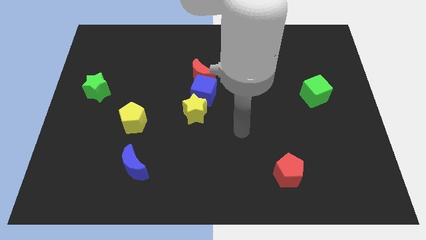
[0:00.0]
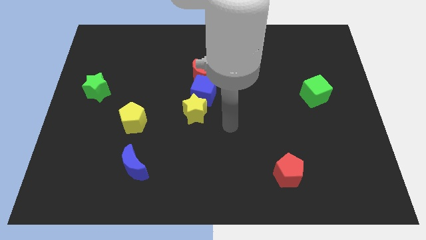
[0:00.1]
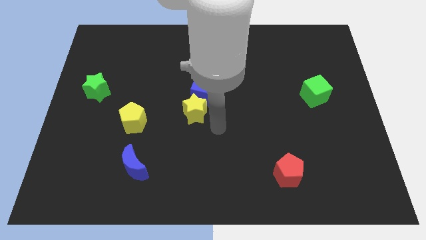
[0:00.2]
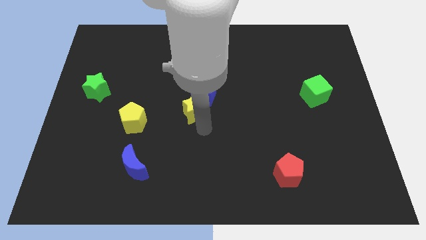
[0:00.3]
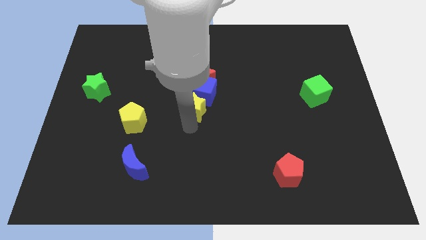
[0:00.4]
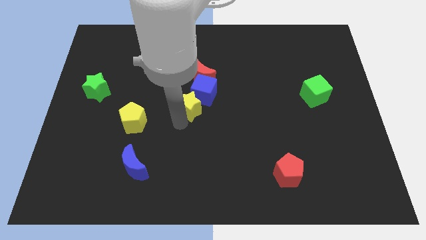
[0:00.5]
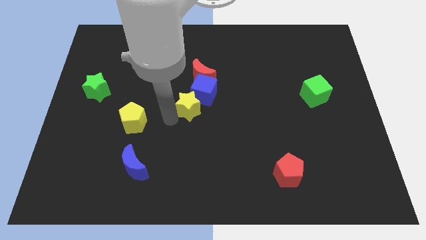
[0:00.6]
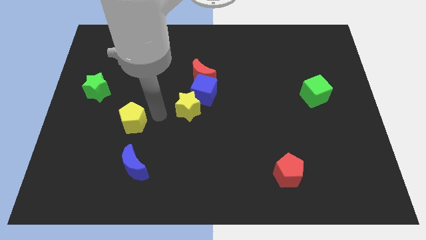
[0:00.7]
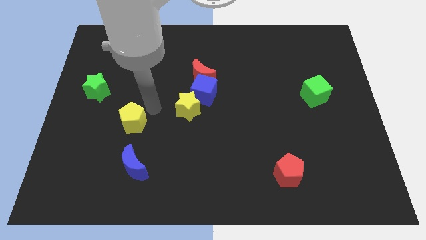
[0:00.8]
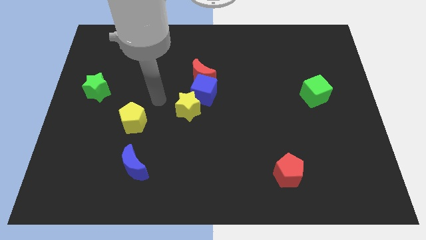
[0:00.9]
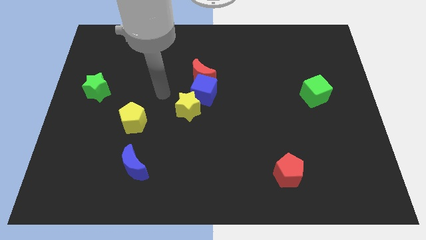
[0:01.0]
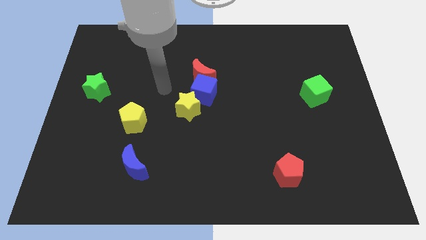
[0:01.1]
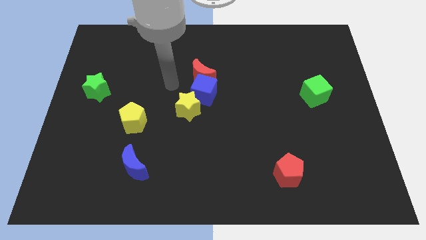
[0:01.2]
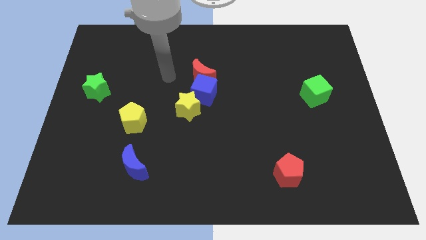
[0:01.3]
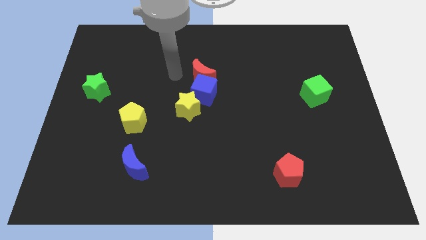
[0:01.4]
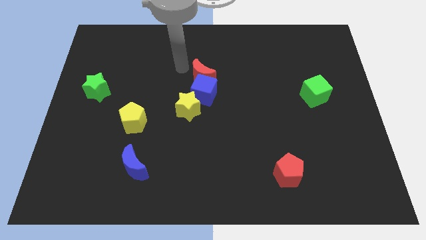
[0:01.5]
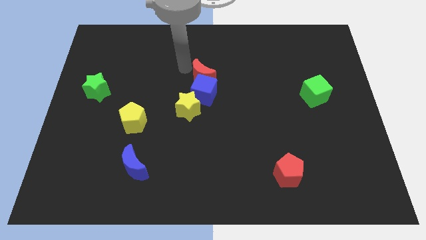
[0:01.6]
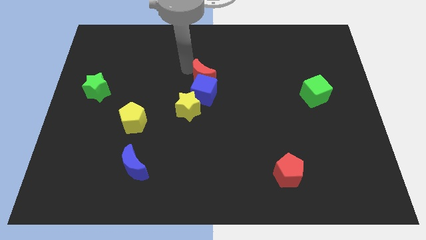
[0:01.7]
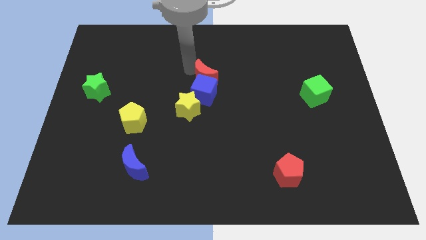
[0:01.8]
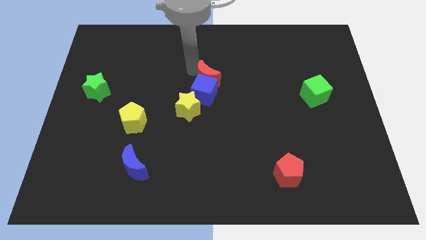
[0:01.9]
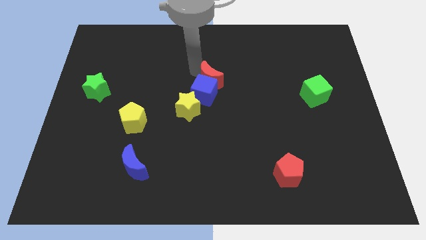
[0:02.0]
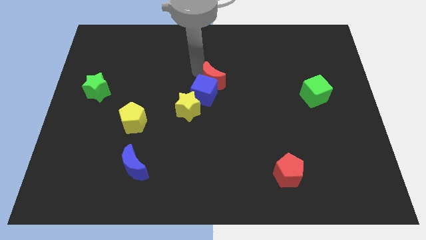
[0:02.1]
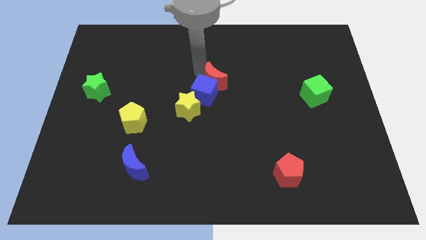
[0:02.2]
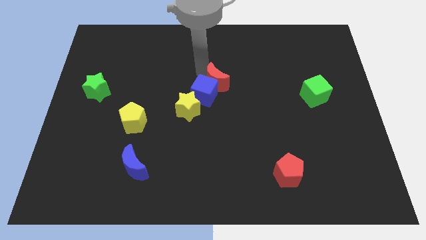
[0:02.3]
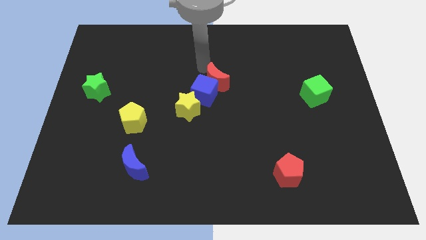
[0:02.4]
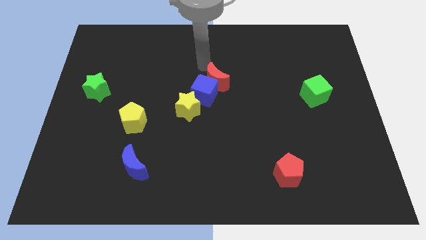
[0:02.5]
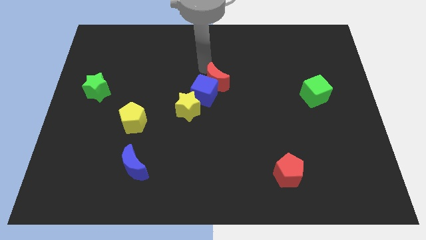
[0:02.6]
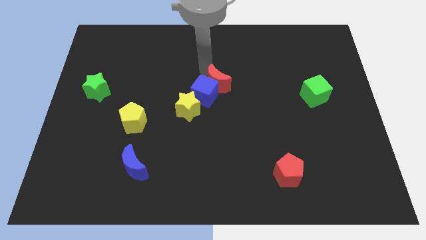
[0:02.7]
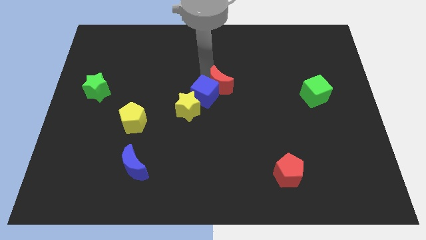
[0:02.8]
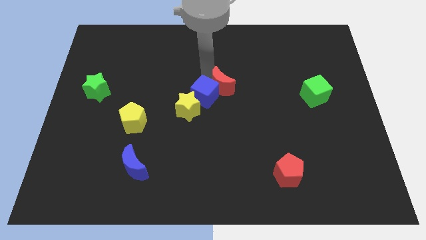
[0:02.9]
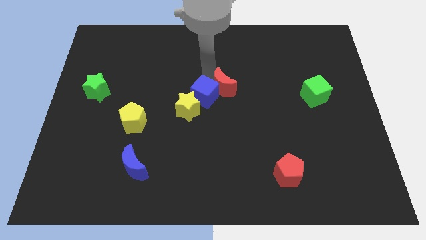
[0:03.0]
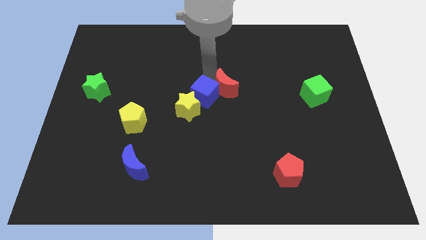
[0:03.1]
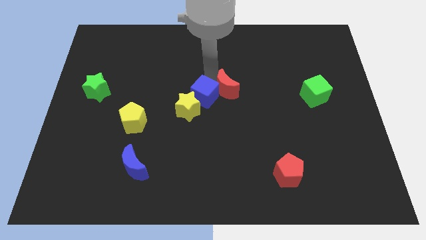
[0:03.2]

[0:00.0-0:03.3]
move the red moon a bit down and to the right

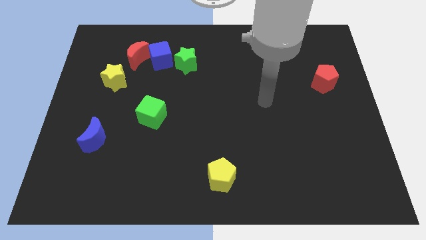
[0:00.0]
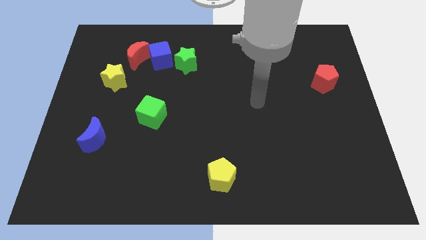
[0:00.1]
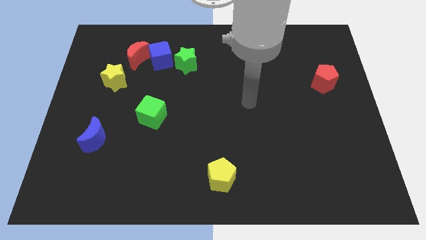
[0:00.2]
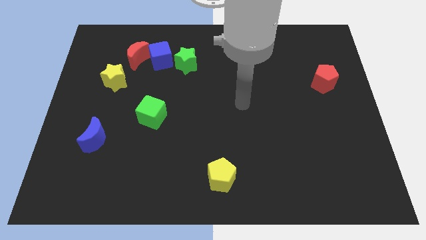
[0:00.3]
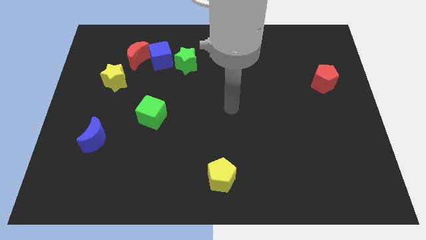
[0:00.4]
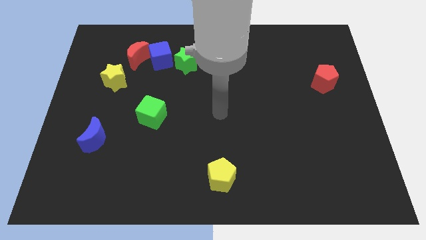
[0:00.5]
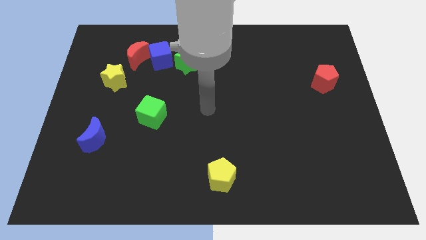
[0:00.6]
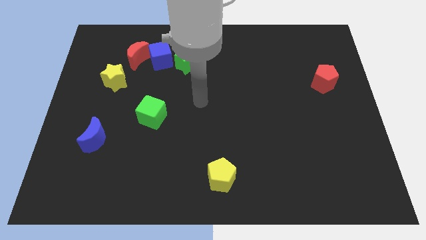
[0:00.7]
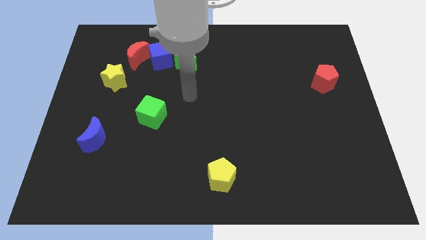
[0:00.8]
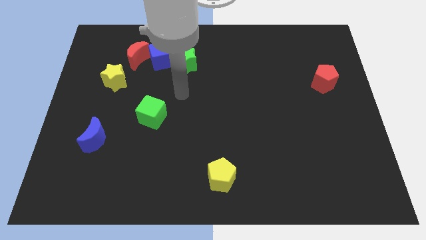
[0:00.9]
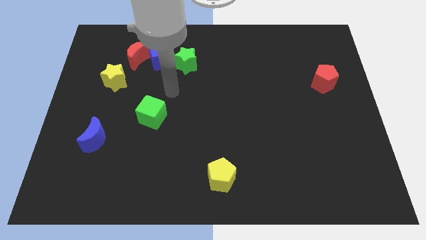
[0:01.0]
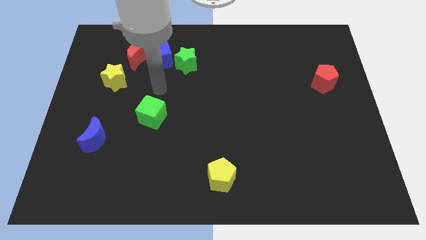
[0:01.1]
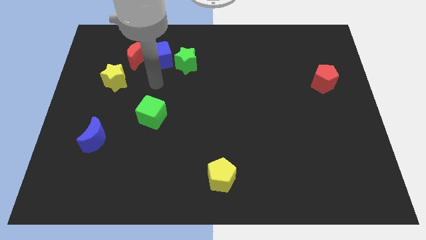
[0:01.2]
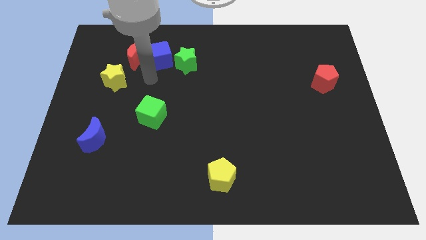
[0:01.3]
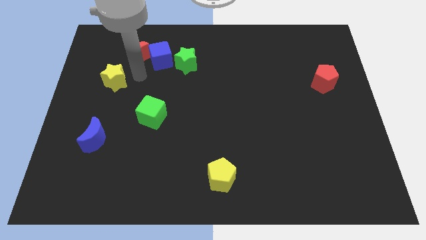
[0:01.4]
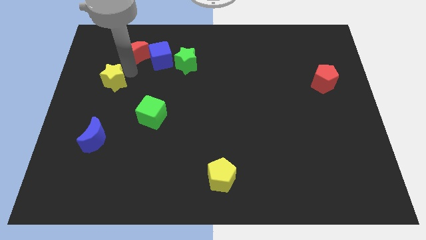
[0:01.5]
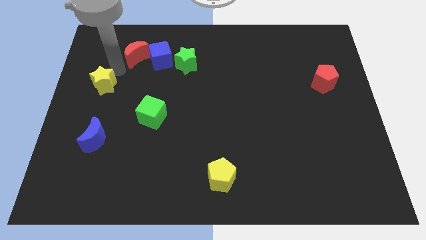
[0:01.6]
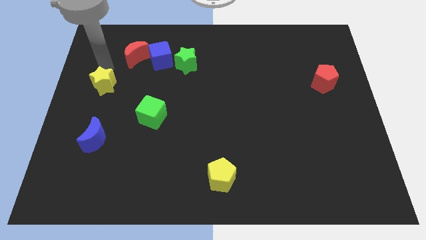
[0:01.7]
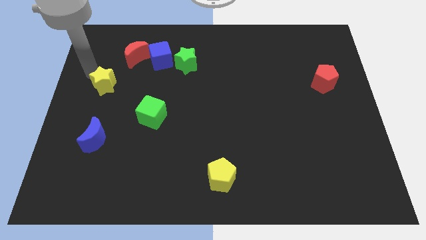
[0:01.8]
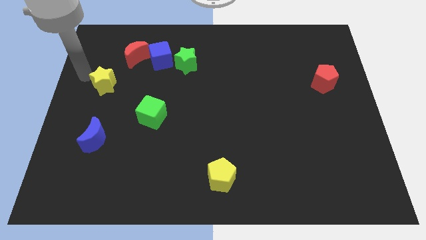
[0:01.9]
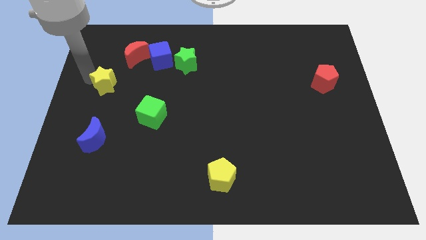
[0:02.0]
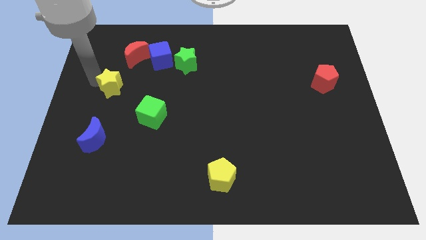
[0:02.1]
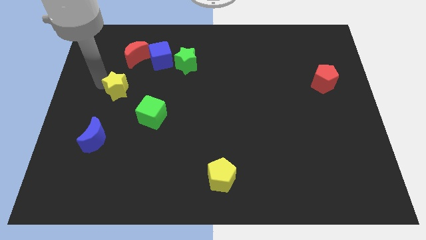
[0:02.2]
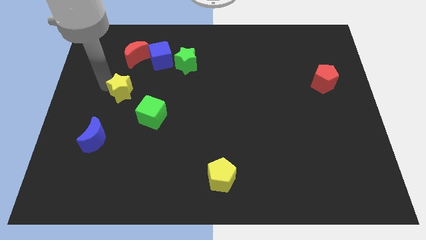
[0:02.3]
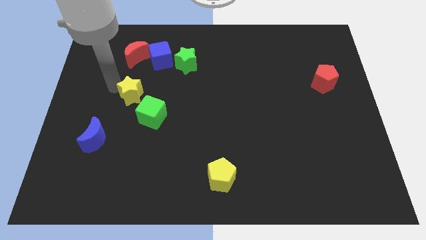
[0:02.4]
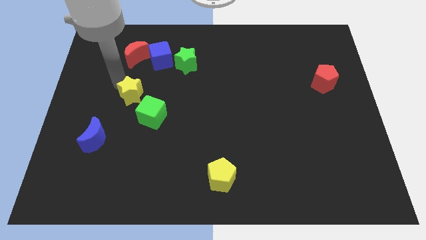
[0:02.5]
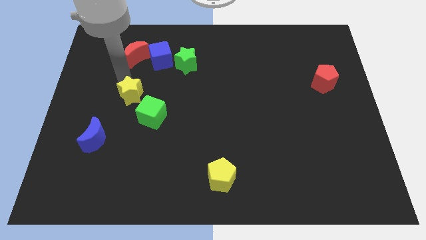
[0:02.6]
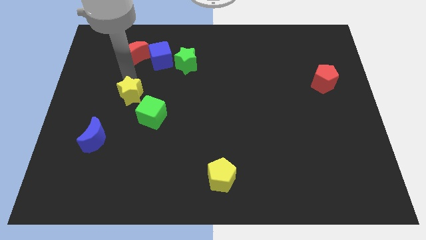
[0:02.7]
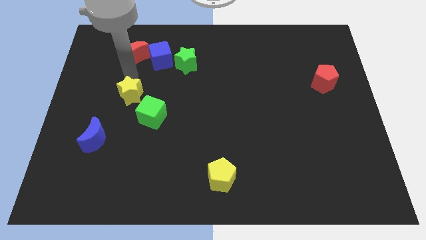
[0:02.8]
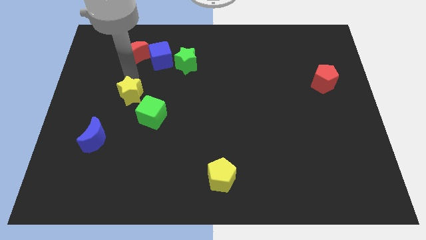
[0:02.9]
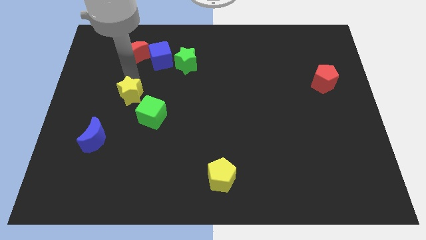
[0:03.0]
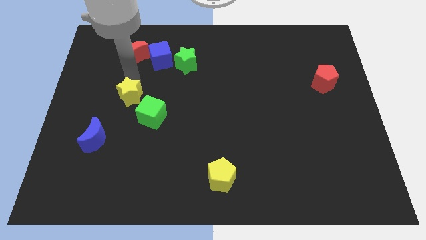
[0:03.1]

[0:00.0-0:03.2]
push the yellow star a little downwards and then right

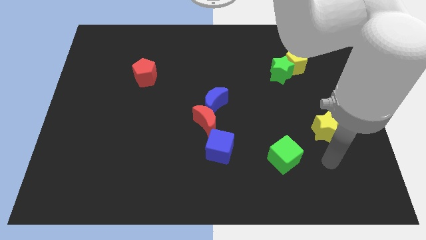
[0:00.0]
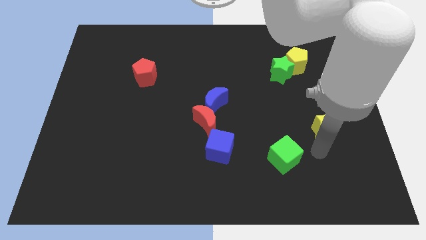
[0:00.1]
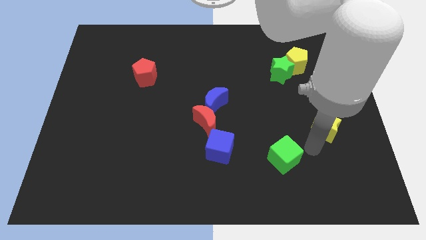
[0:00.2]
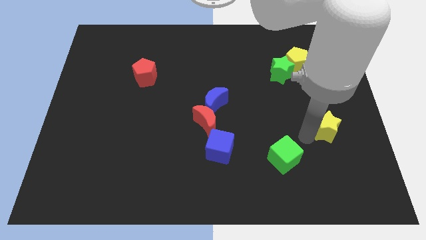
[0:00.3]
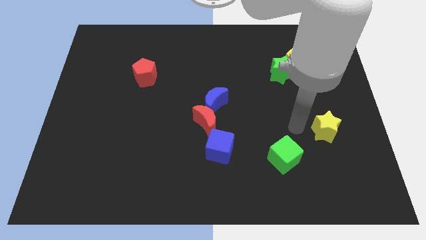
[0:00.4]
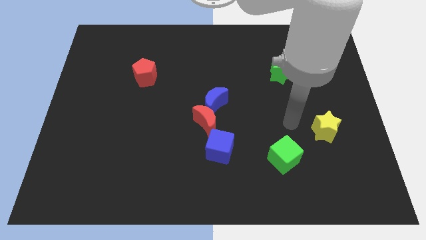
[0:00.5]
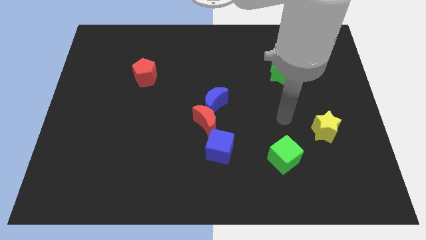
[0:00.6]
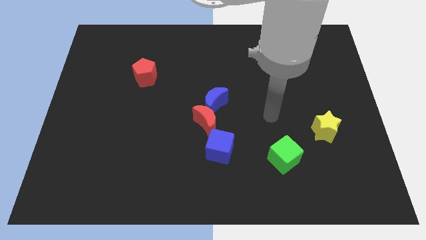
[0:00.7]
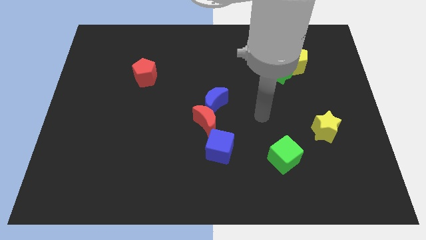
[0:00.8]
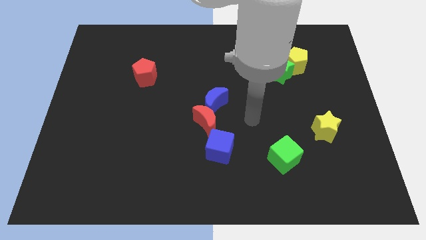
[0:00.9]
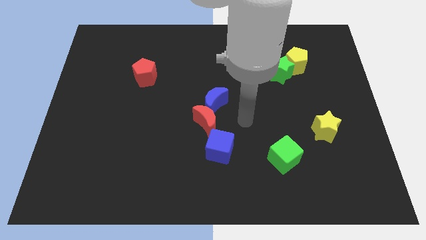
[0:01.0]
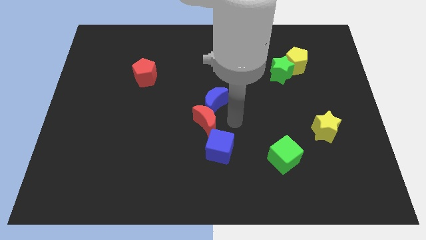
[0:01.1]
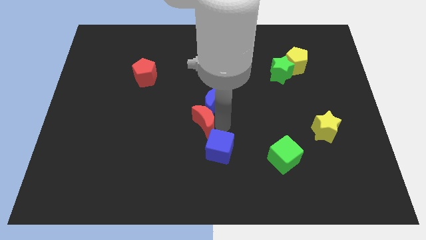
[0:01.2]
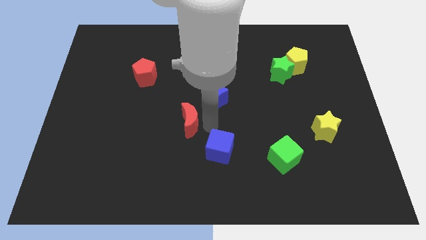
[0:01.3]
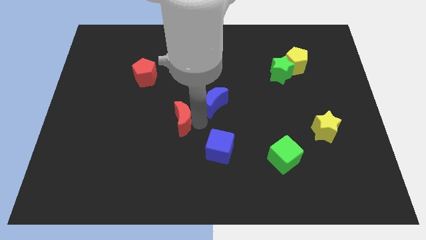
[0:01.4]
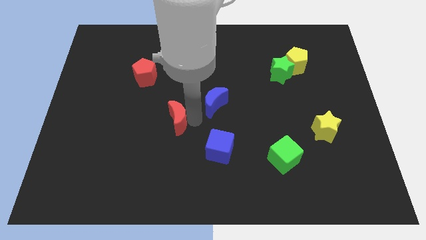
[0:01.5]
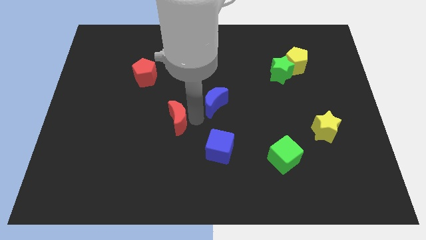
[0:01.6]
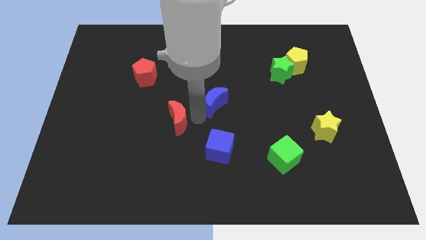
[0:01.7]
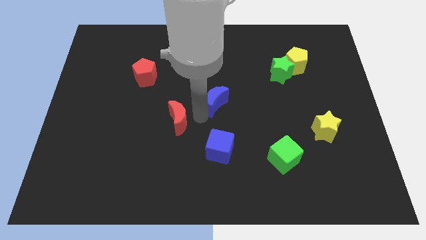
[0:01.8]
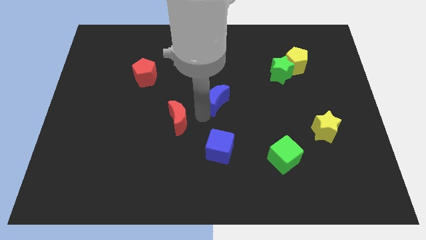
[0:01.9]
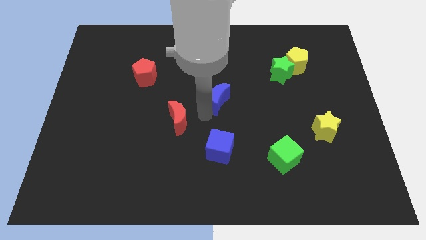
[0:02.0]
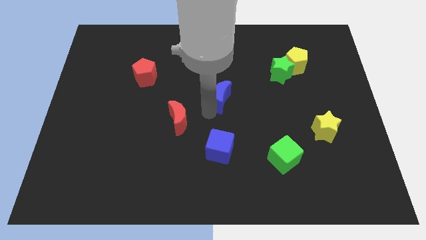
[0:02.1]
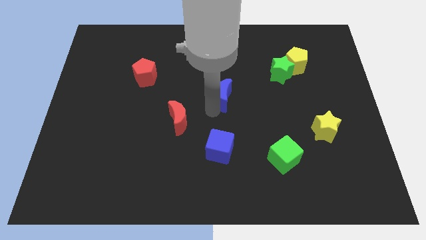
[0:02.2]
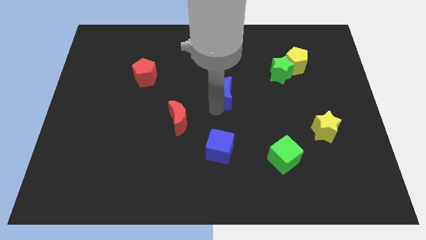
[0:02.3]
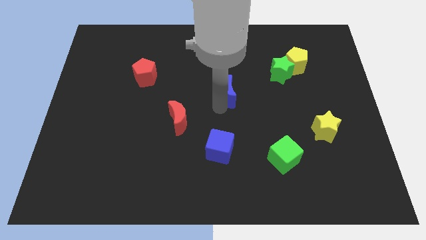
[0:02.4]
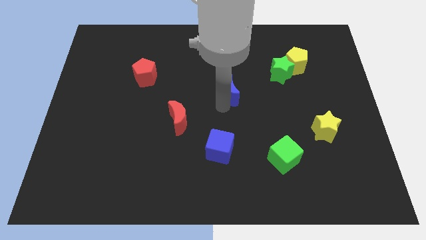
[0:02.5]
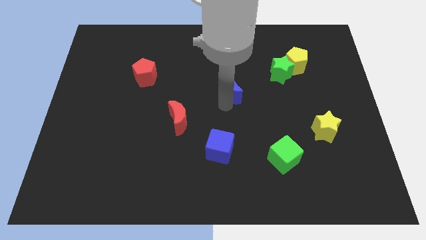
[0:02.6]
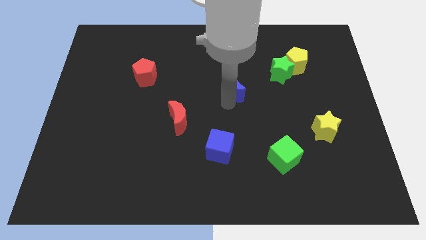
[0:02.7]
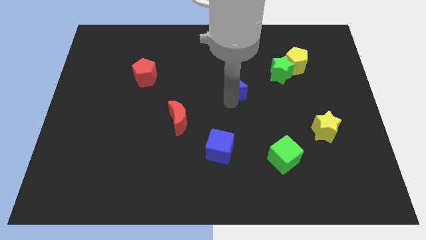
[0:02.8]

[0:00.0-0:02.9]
push the blue moon up and to the right diagonally a little
